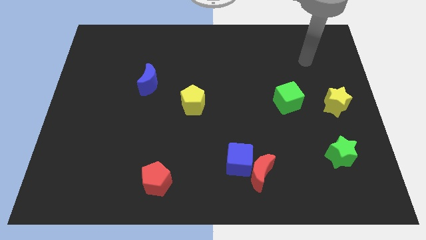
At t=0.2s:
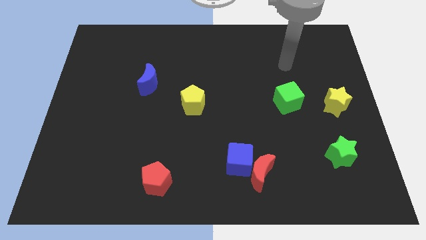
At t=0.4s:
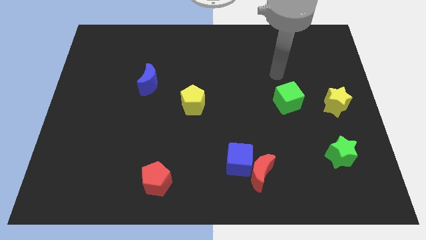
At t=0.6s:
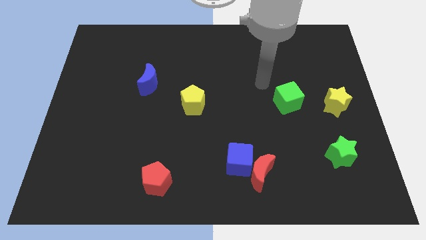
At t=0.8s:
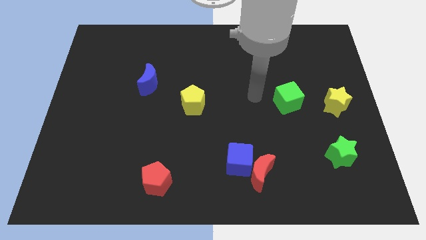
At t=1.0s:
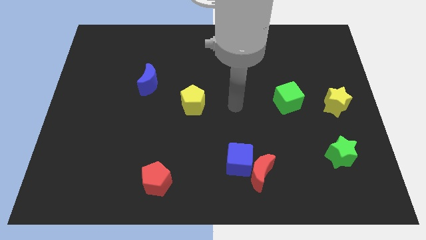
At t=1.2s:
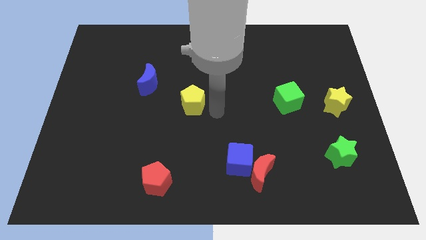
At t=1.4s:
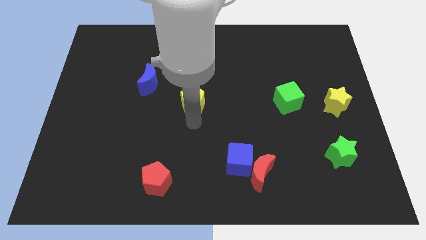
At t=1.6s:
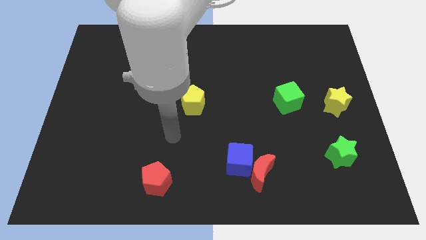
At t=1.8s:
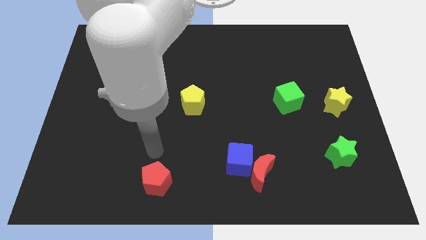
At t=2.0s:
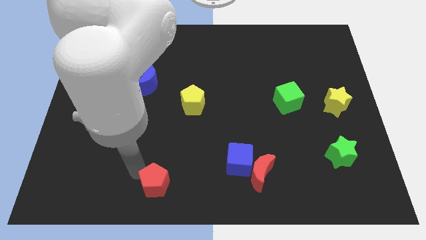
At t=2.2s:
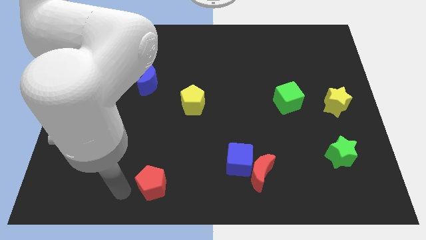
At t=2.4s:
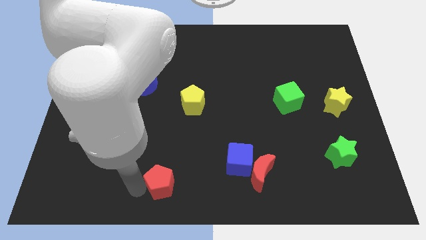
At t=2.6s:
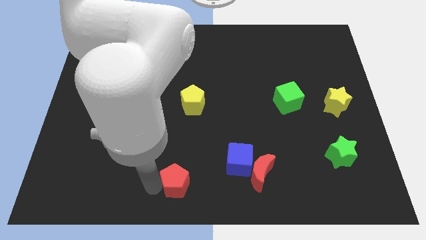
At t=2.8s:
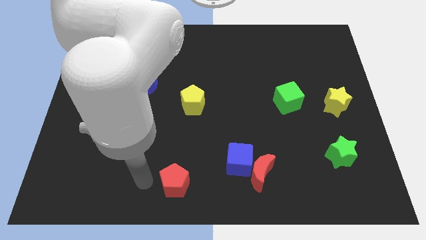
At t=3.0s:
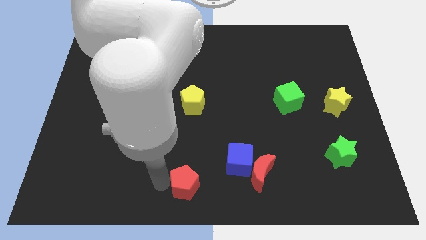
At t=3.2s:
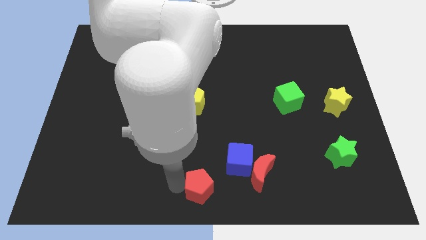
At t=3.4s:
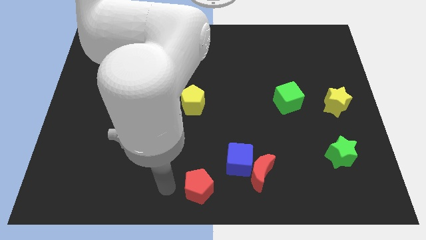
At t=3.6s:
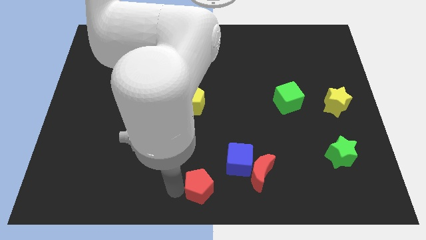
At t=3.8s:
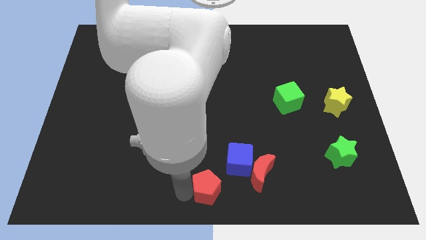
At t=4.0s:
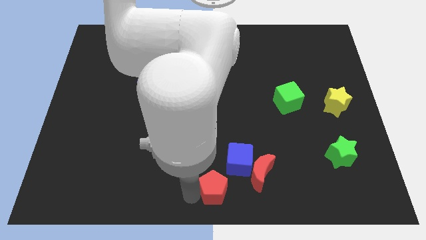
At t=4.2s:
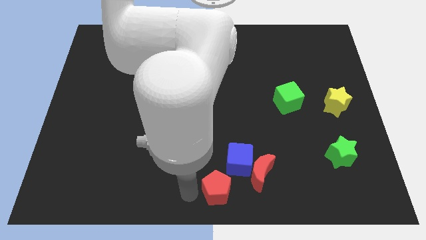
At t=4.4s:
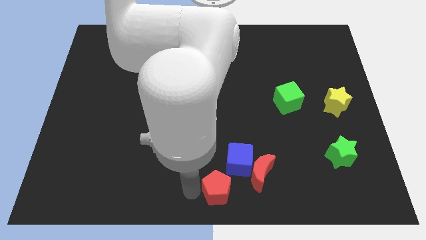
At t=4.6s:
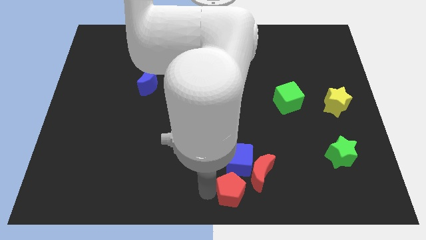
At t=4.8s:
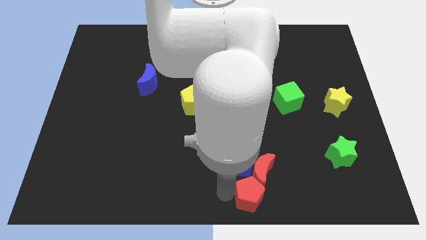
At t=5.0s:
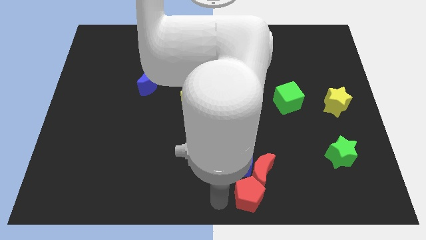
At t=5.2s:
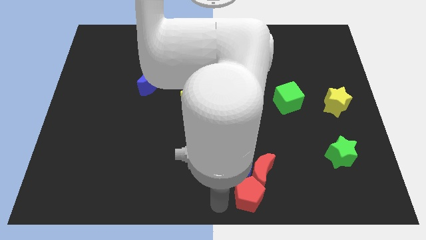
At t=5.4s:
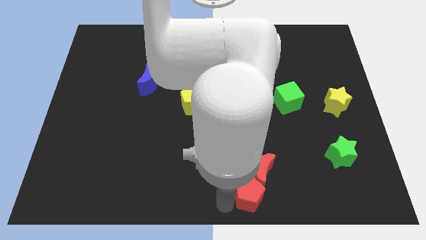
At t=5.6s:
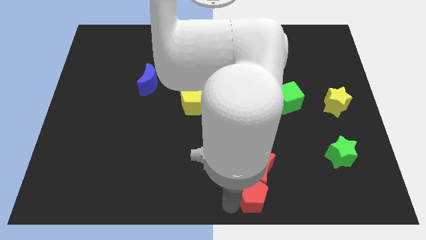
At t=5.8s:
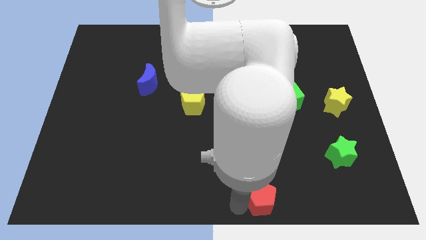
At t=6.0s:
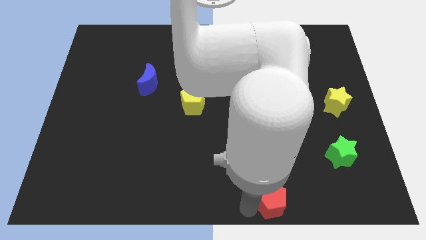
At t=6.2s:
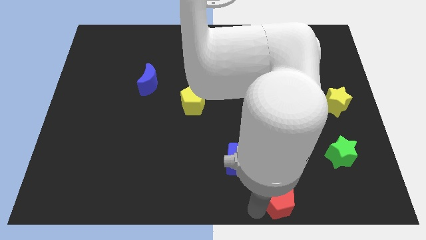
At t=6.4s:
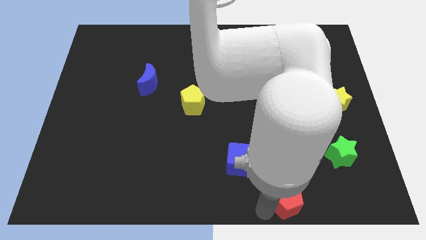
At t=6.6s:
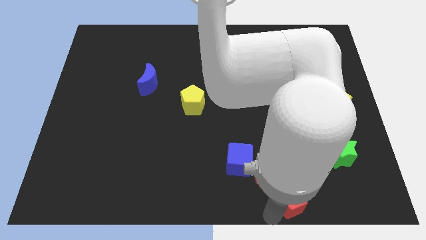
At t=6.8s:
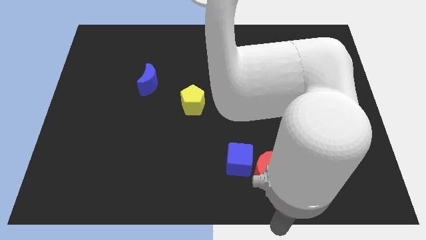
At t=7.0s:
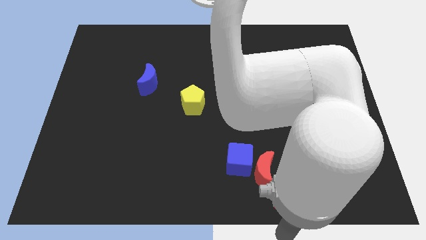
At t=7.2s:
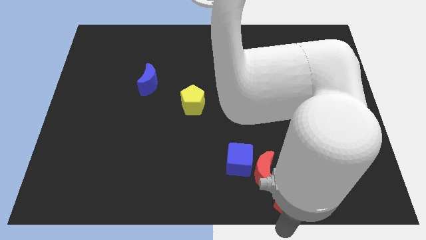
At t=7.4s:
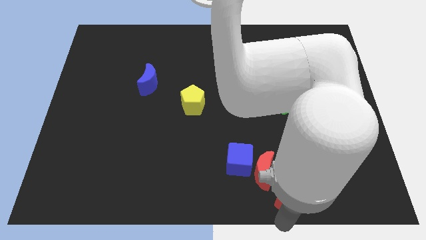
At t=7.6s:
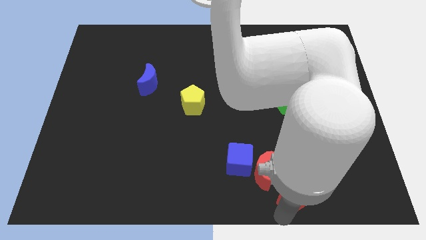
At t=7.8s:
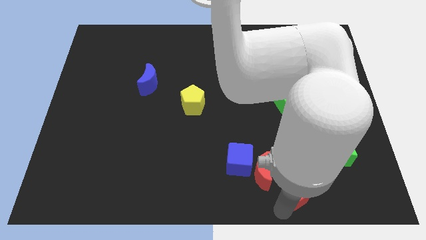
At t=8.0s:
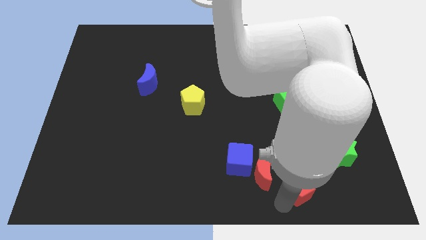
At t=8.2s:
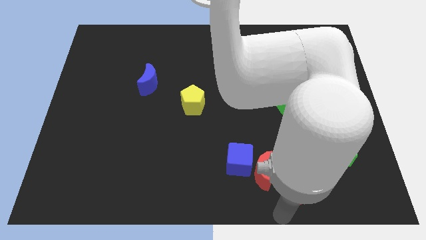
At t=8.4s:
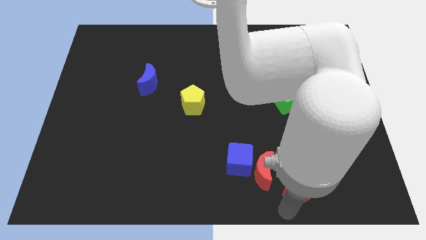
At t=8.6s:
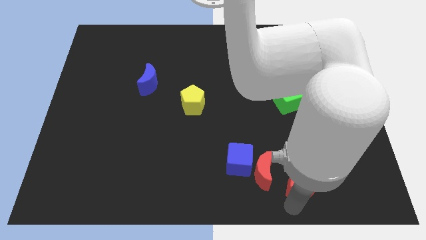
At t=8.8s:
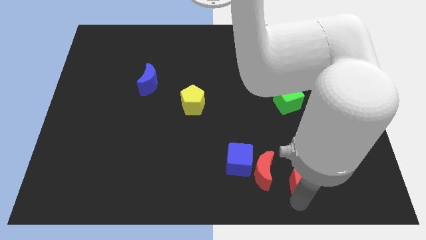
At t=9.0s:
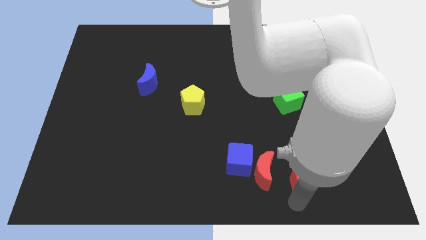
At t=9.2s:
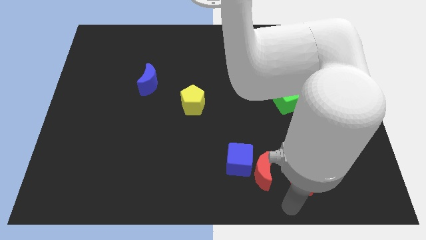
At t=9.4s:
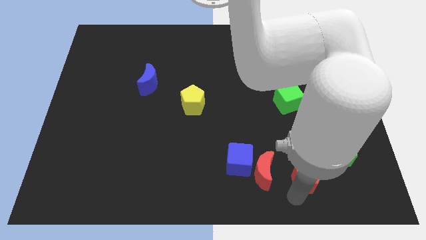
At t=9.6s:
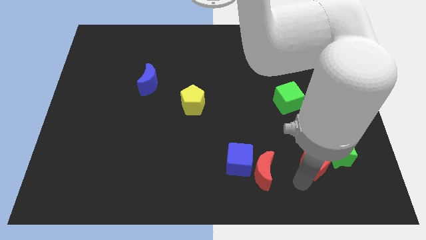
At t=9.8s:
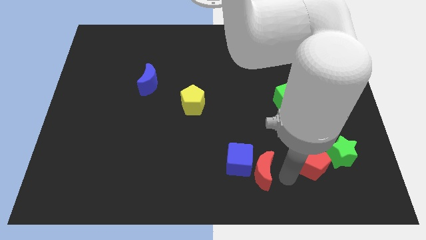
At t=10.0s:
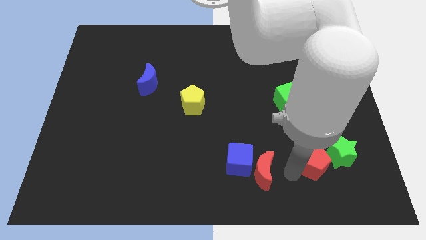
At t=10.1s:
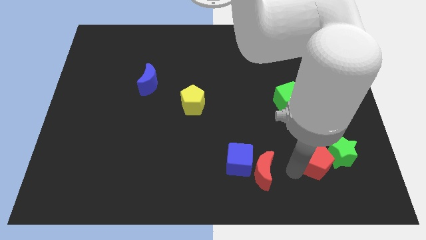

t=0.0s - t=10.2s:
move the red pentagon towards the green star

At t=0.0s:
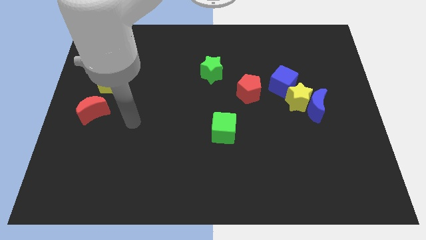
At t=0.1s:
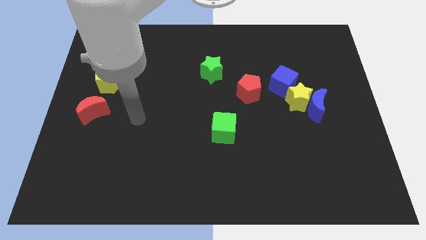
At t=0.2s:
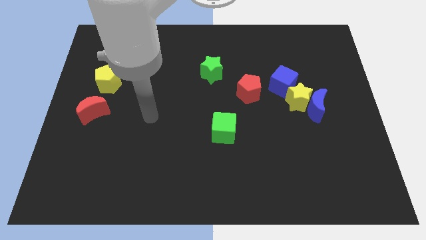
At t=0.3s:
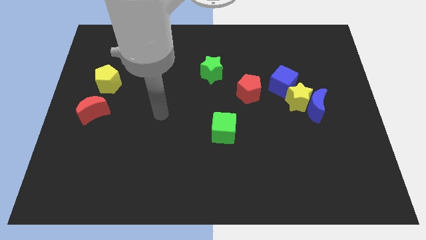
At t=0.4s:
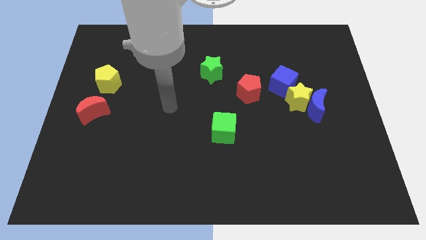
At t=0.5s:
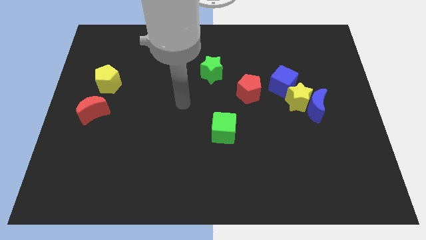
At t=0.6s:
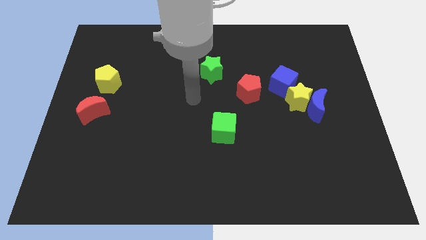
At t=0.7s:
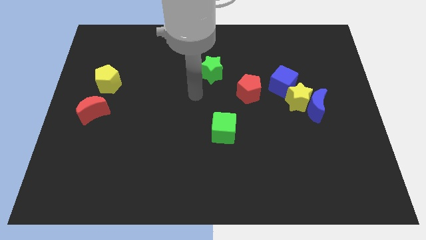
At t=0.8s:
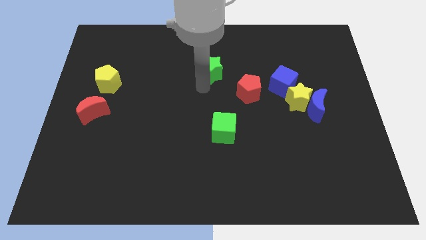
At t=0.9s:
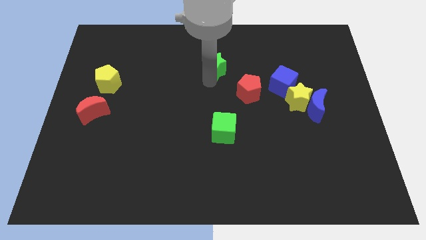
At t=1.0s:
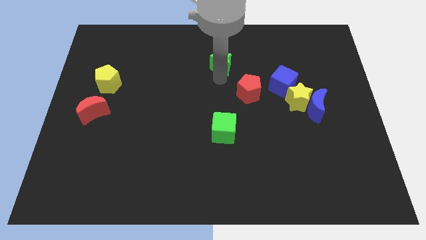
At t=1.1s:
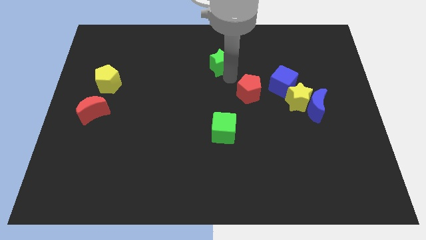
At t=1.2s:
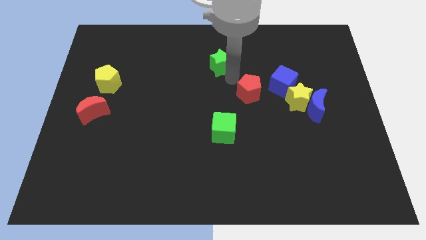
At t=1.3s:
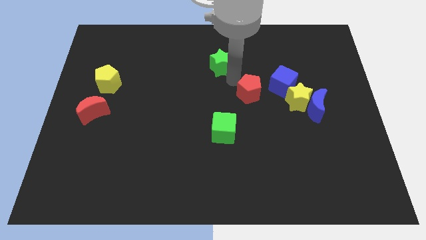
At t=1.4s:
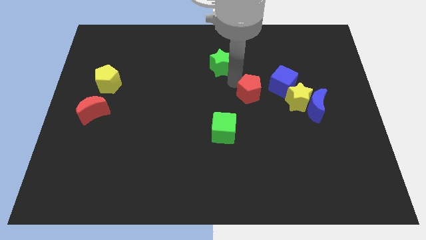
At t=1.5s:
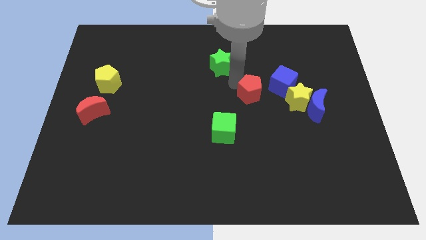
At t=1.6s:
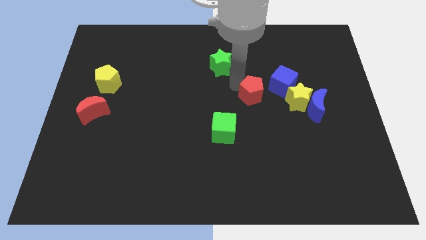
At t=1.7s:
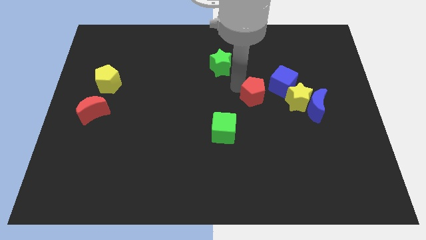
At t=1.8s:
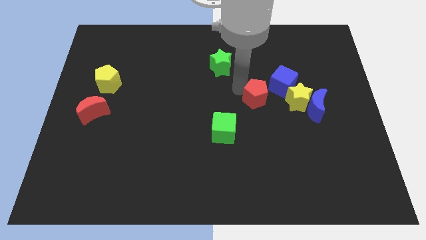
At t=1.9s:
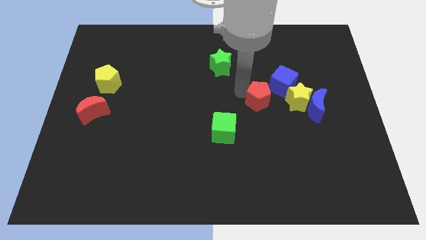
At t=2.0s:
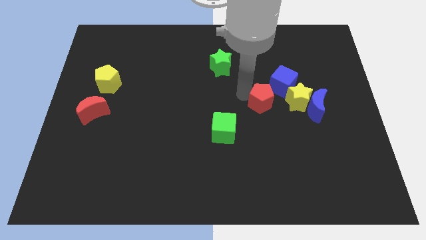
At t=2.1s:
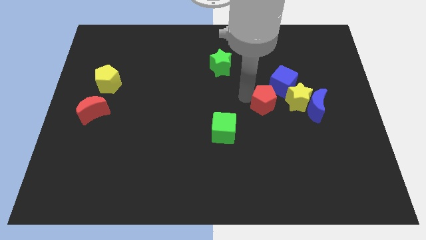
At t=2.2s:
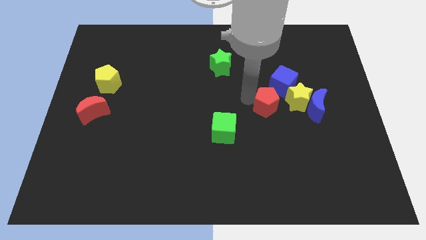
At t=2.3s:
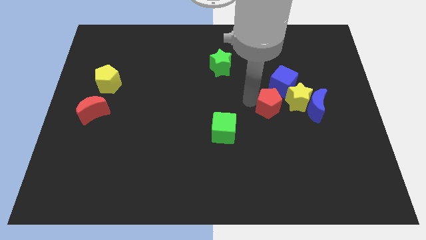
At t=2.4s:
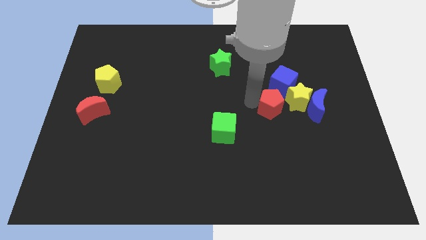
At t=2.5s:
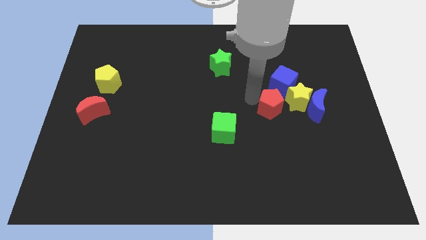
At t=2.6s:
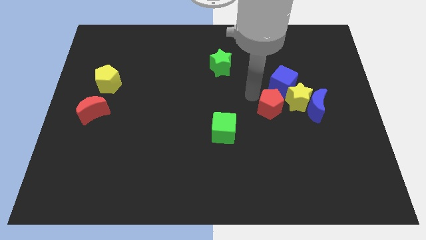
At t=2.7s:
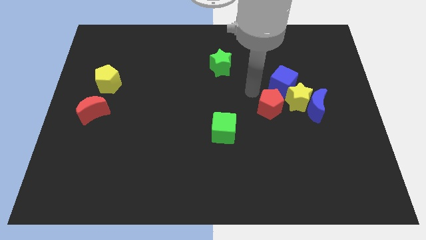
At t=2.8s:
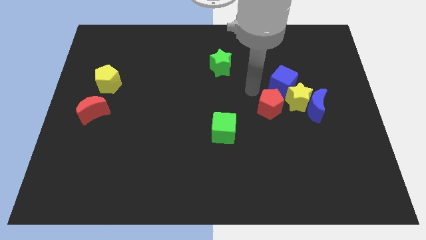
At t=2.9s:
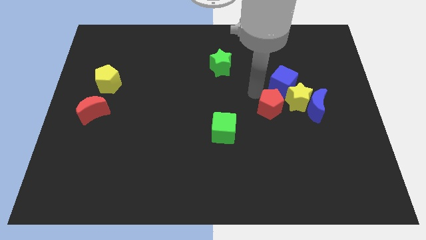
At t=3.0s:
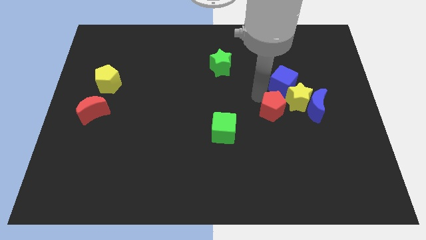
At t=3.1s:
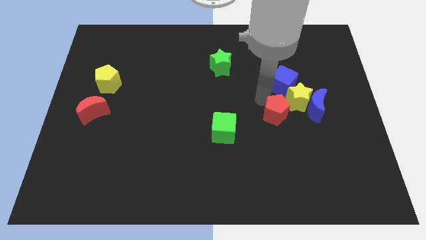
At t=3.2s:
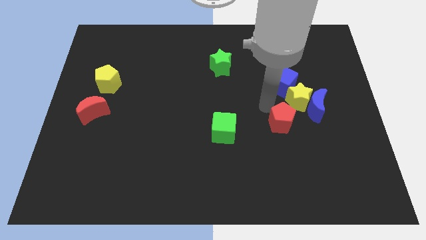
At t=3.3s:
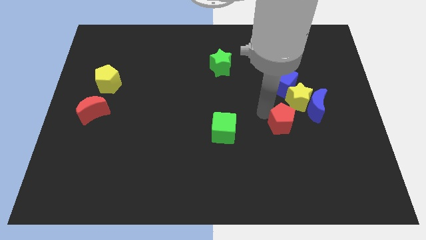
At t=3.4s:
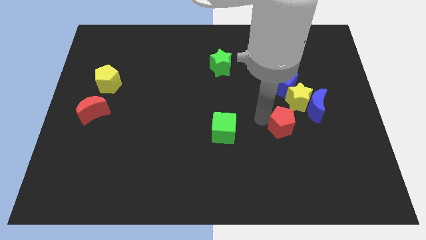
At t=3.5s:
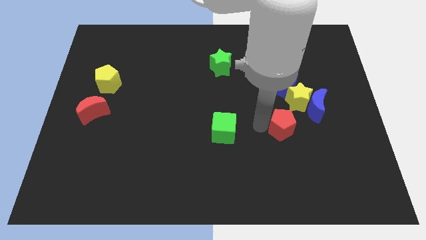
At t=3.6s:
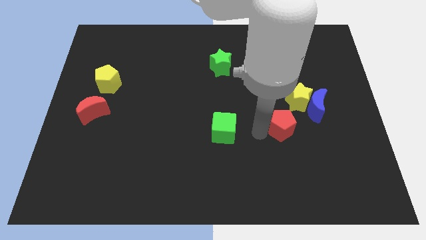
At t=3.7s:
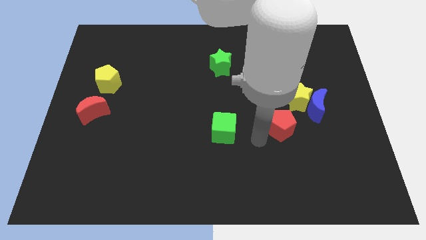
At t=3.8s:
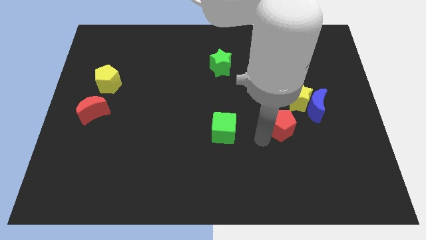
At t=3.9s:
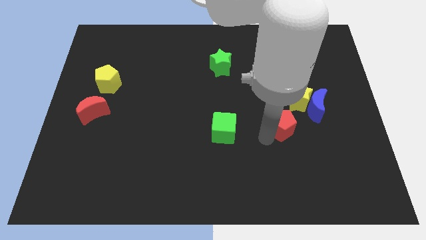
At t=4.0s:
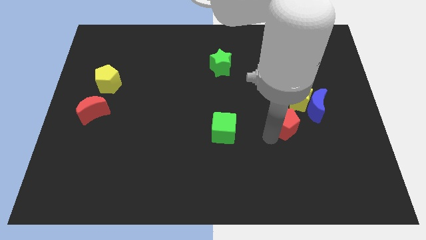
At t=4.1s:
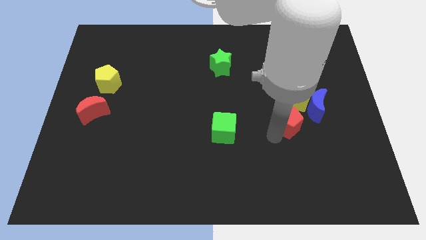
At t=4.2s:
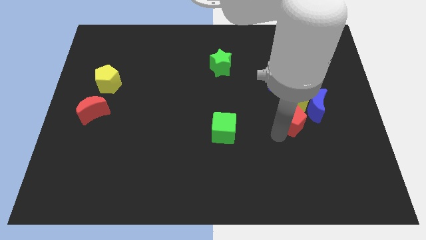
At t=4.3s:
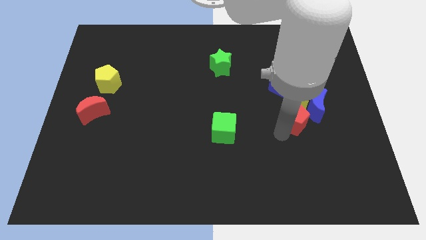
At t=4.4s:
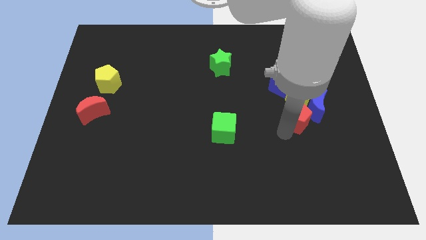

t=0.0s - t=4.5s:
push the red pentagon towards the blue moon
